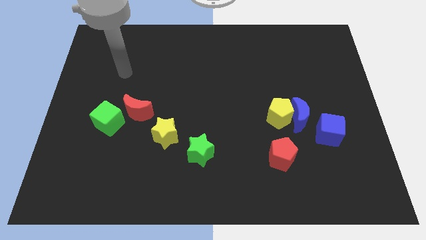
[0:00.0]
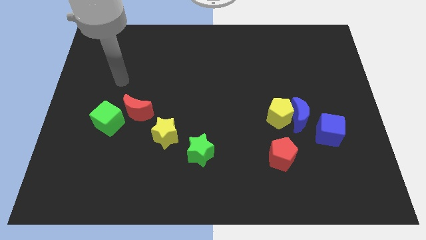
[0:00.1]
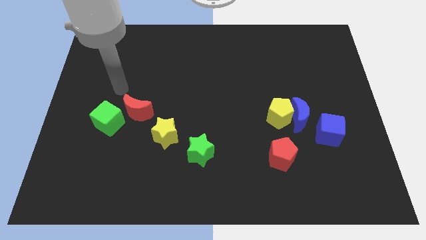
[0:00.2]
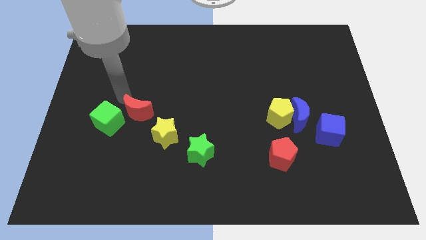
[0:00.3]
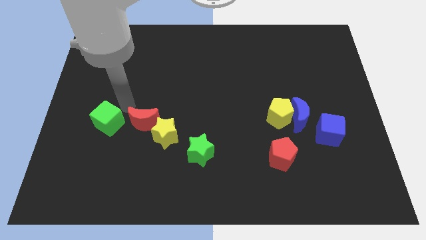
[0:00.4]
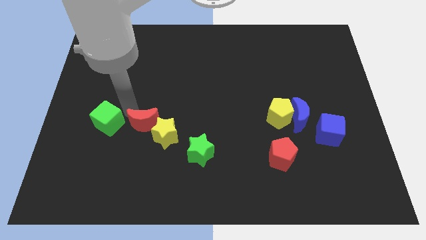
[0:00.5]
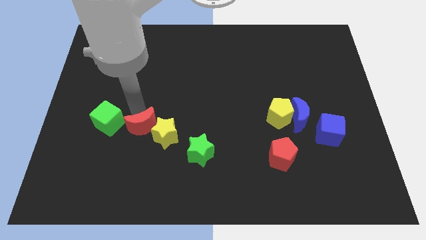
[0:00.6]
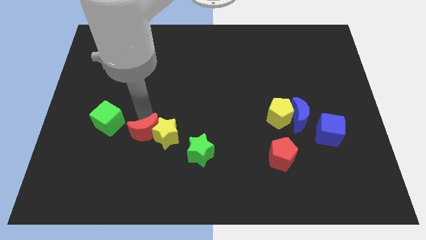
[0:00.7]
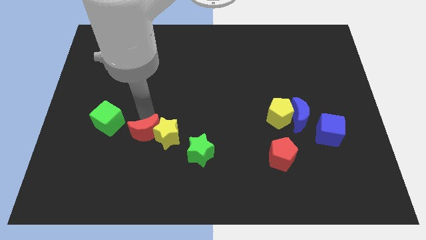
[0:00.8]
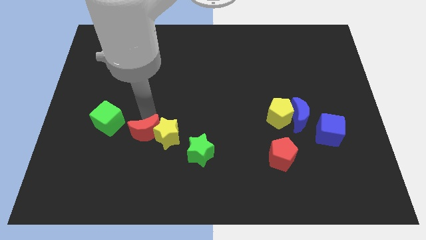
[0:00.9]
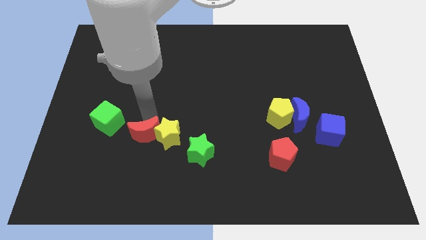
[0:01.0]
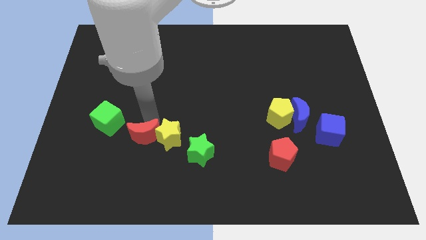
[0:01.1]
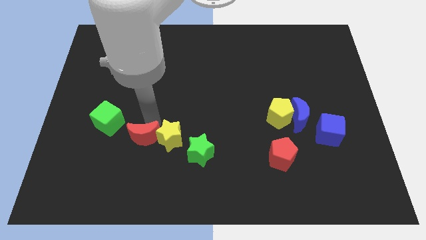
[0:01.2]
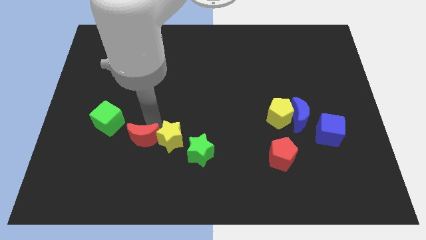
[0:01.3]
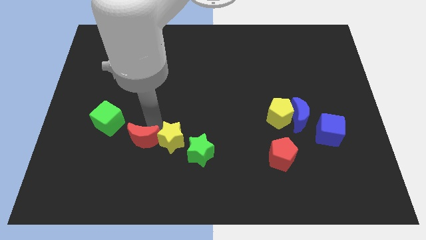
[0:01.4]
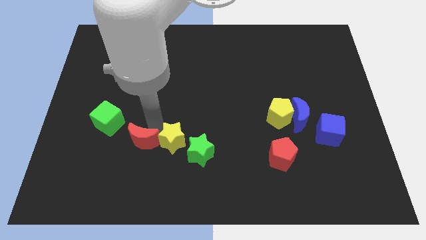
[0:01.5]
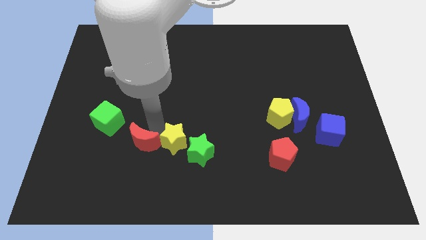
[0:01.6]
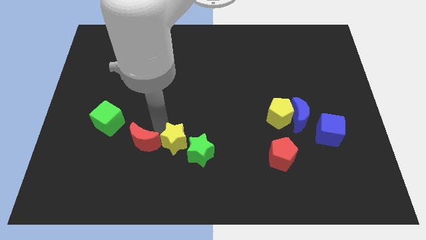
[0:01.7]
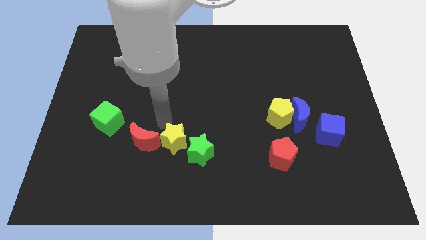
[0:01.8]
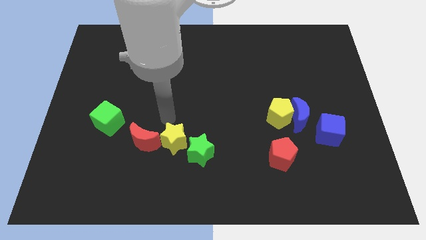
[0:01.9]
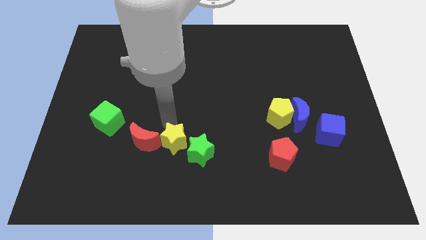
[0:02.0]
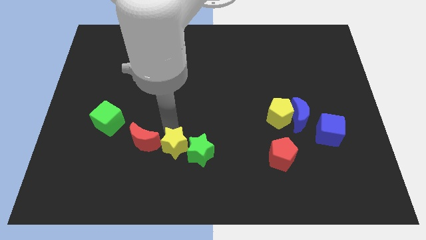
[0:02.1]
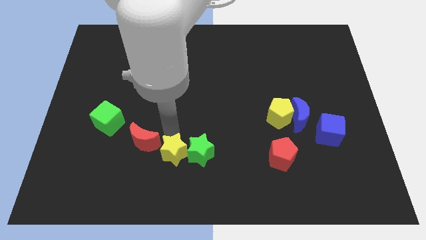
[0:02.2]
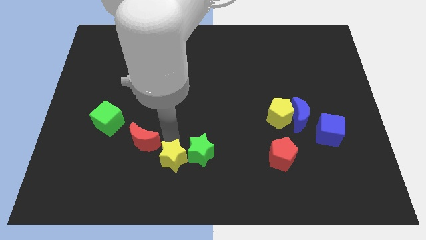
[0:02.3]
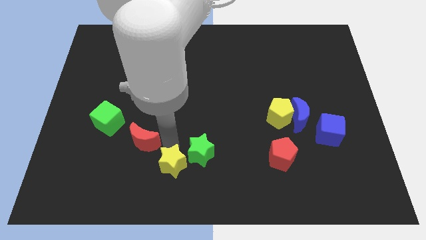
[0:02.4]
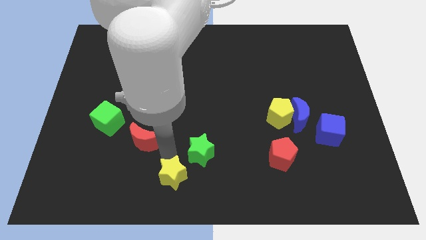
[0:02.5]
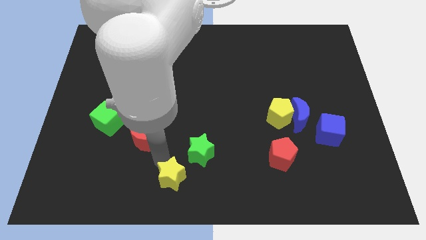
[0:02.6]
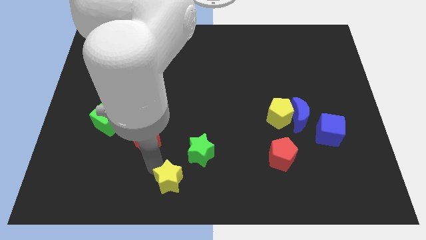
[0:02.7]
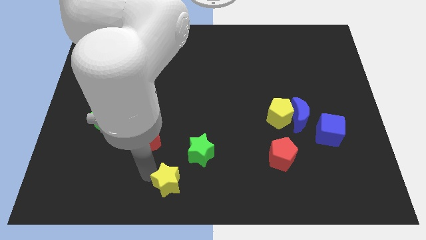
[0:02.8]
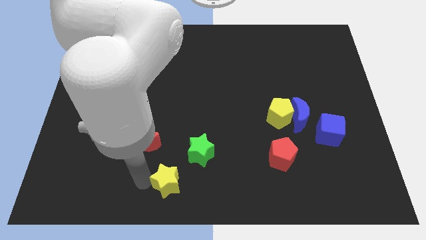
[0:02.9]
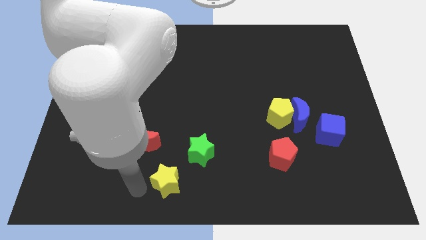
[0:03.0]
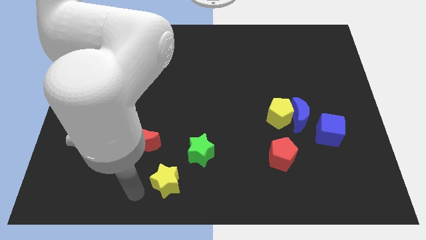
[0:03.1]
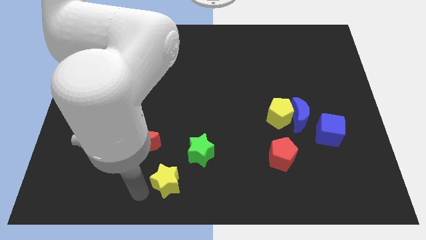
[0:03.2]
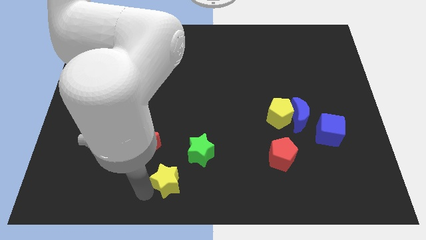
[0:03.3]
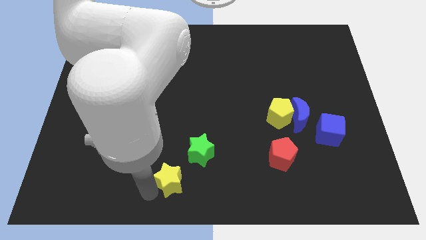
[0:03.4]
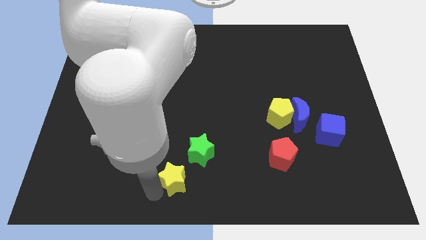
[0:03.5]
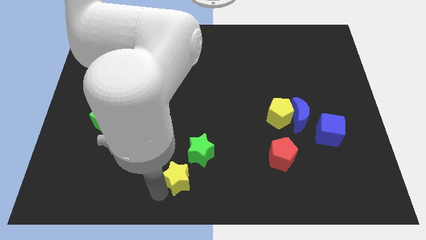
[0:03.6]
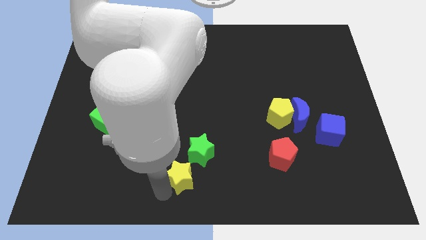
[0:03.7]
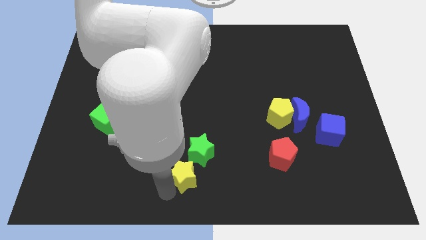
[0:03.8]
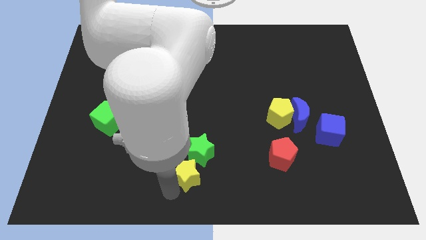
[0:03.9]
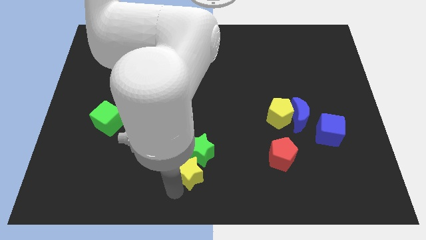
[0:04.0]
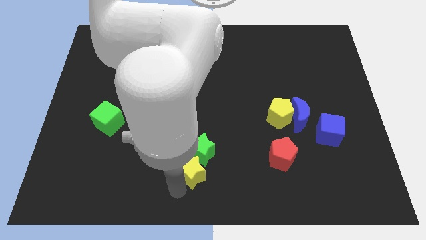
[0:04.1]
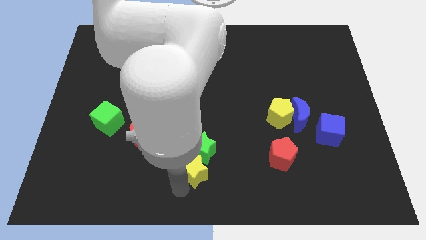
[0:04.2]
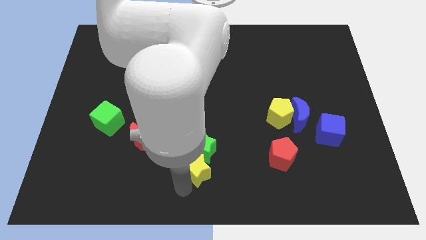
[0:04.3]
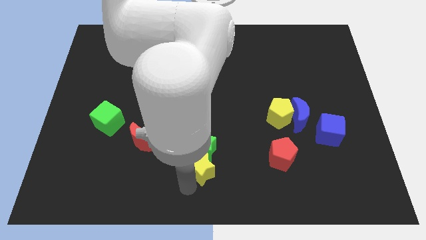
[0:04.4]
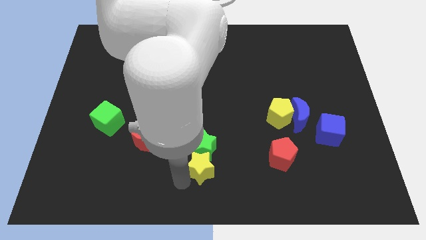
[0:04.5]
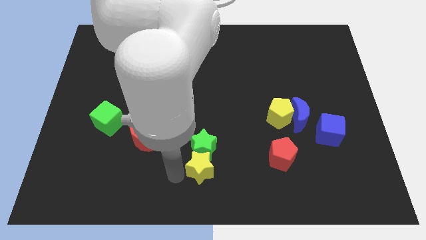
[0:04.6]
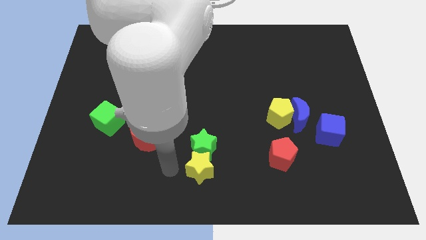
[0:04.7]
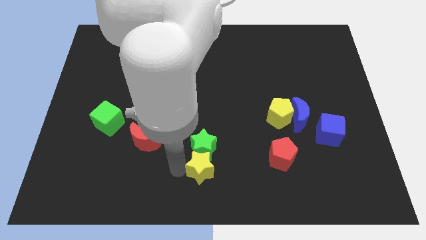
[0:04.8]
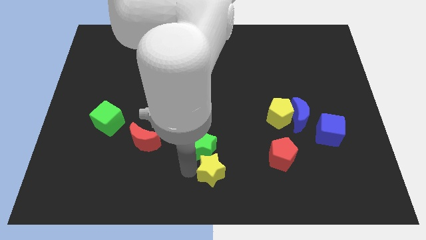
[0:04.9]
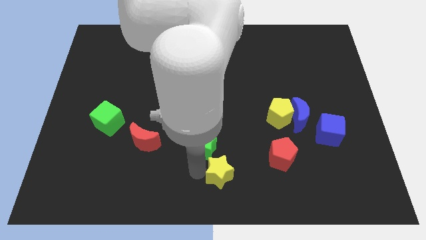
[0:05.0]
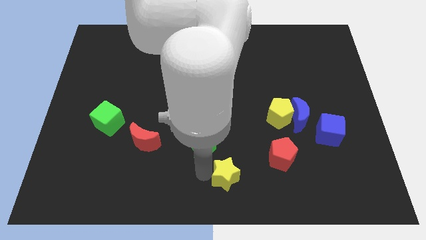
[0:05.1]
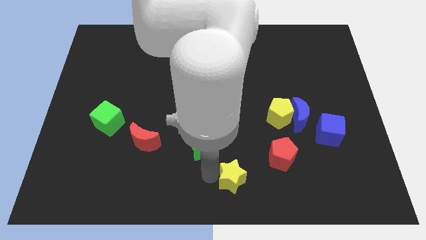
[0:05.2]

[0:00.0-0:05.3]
slide the yellow star to the bottom left of the red pentagon

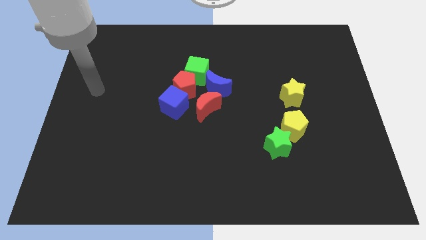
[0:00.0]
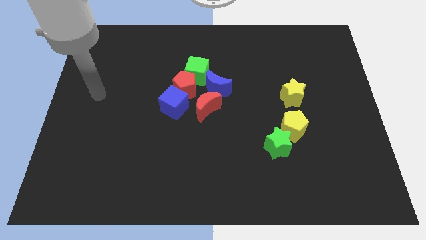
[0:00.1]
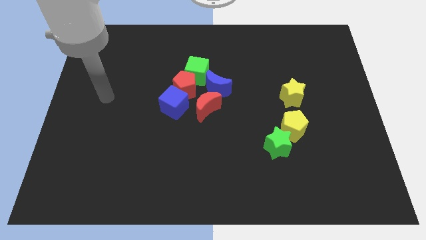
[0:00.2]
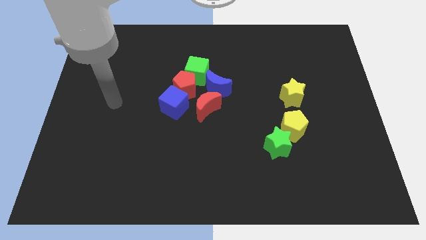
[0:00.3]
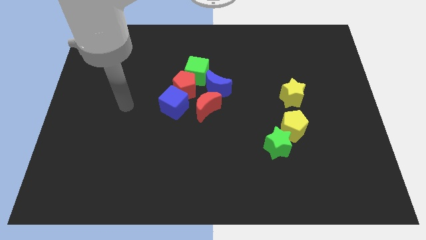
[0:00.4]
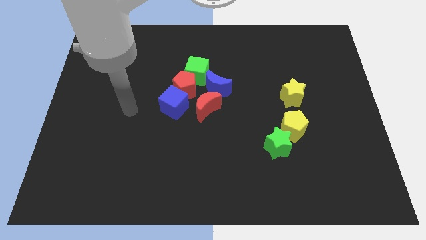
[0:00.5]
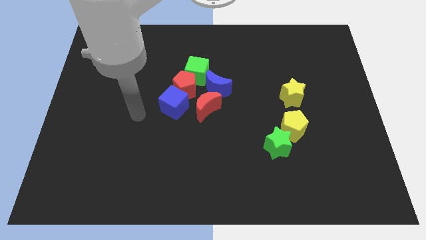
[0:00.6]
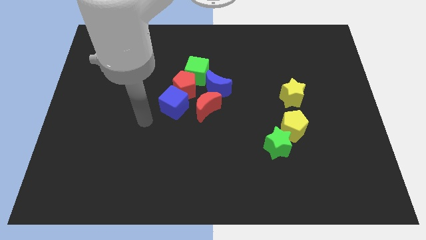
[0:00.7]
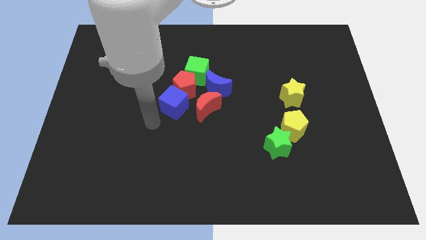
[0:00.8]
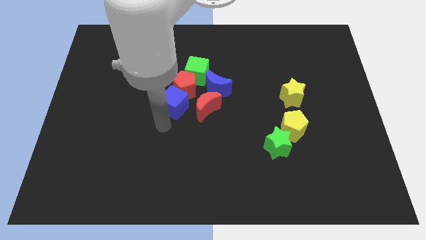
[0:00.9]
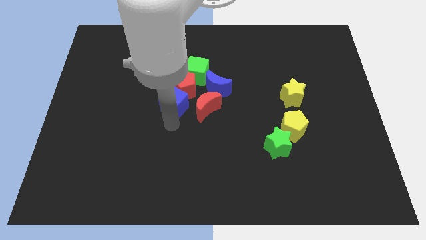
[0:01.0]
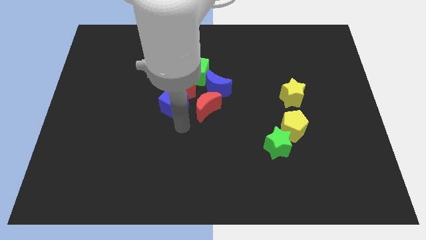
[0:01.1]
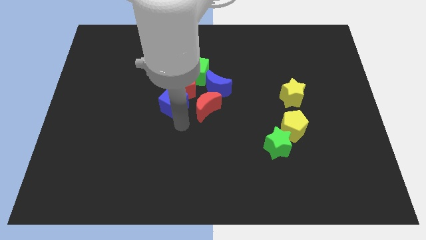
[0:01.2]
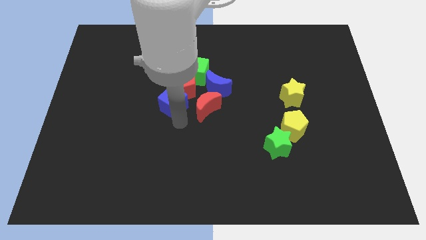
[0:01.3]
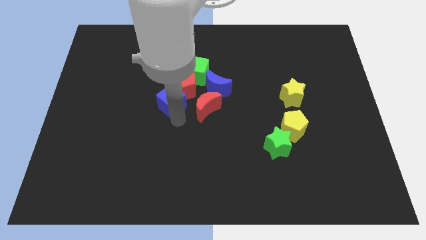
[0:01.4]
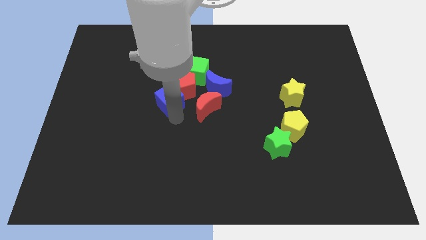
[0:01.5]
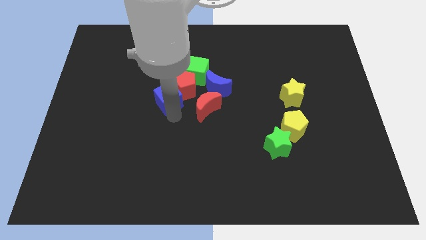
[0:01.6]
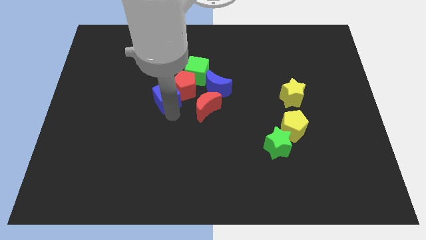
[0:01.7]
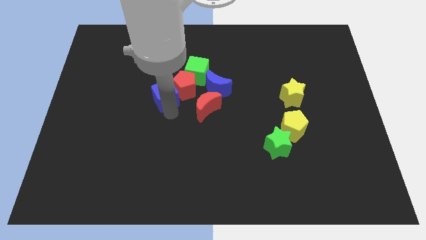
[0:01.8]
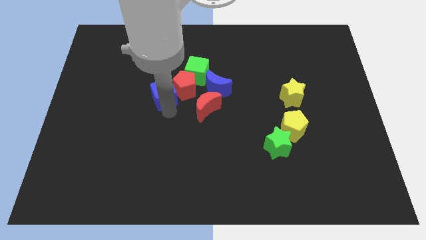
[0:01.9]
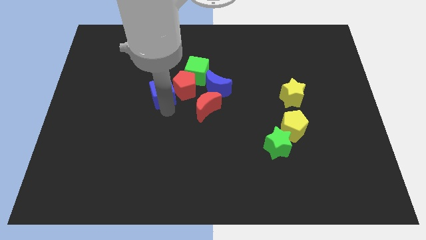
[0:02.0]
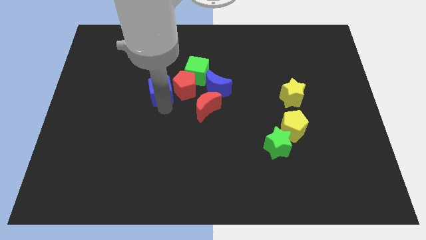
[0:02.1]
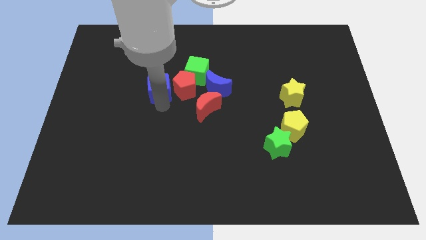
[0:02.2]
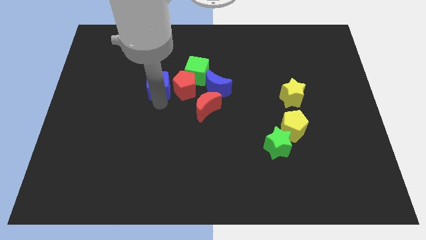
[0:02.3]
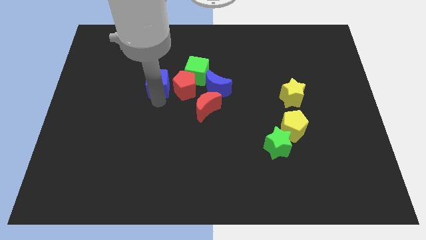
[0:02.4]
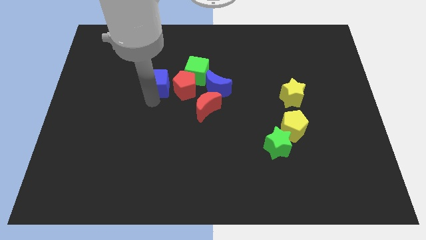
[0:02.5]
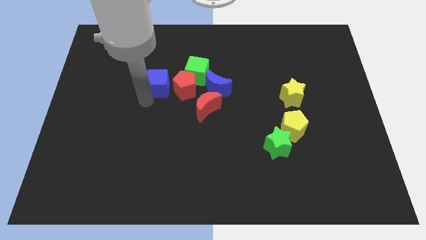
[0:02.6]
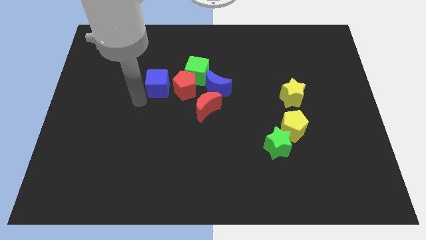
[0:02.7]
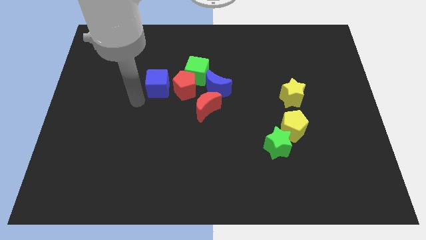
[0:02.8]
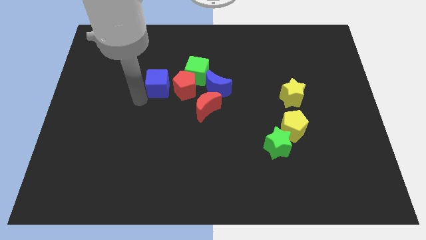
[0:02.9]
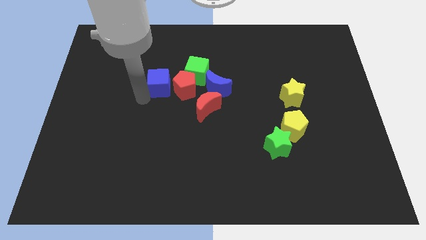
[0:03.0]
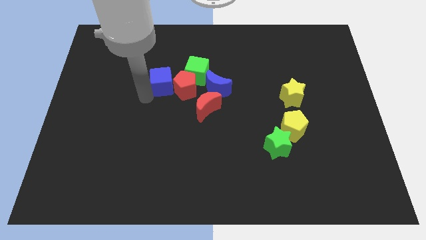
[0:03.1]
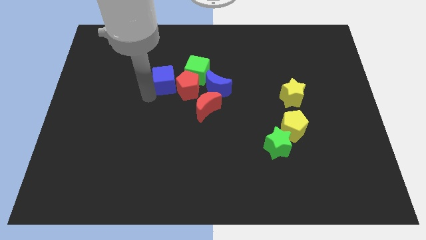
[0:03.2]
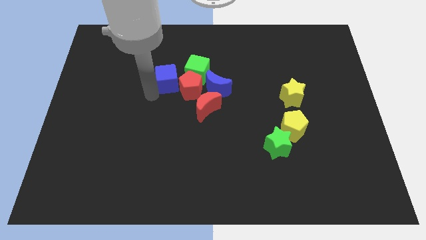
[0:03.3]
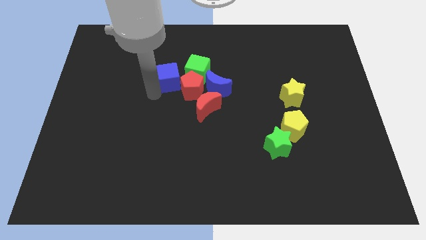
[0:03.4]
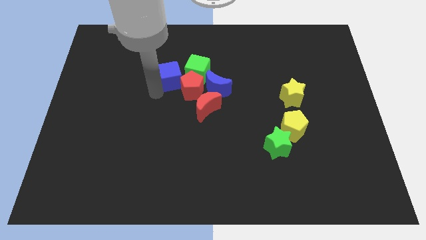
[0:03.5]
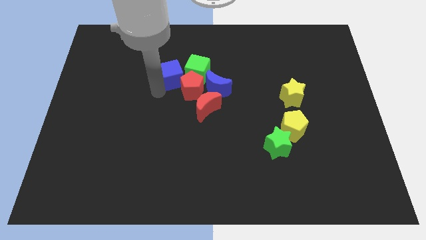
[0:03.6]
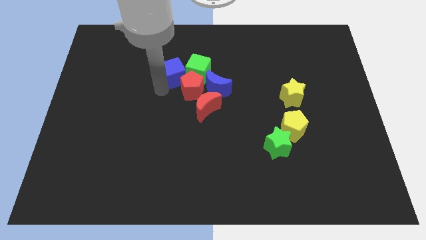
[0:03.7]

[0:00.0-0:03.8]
move the blue cube to the top side of the red pentagon
